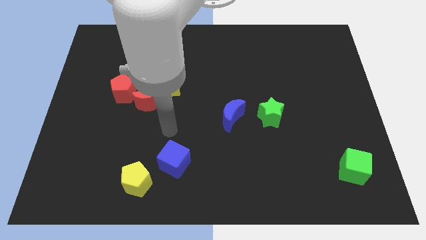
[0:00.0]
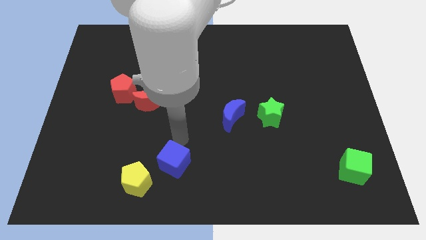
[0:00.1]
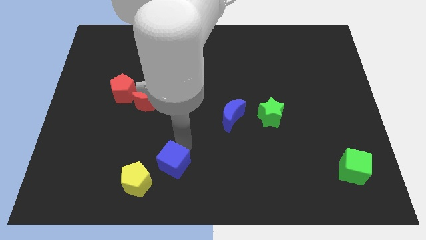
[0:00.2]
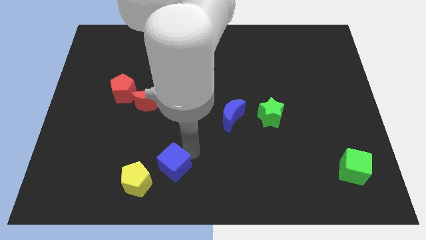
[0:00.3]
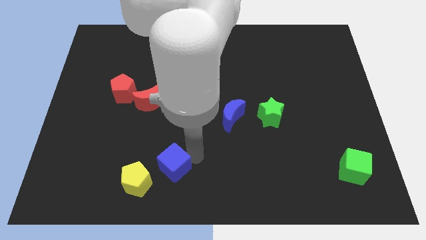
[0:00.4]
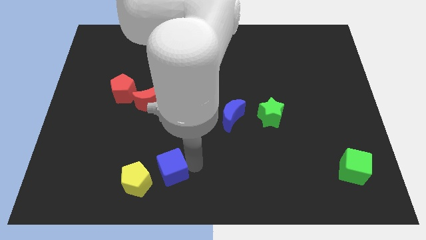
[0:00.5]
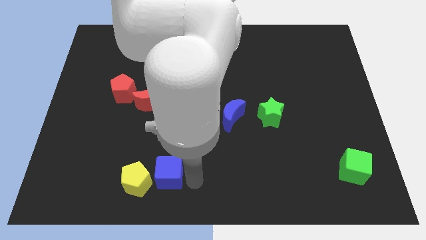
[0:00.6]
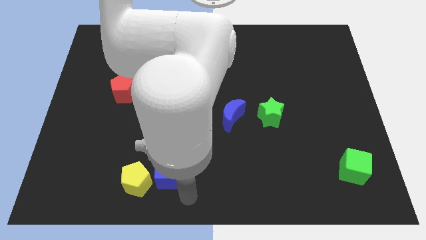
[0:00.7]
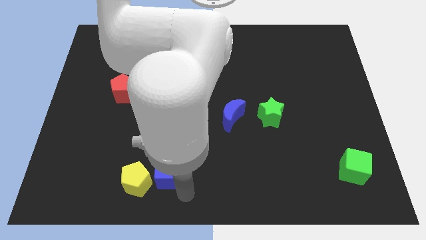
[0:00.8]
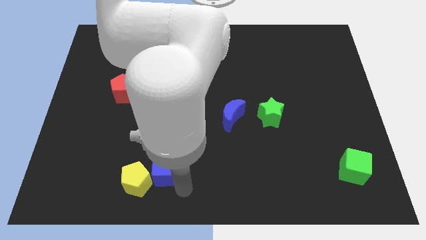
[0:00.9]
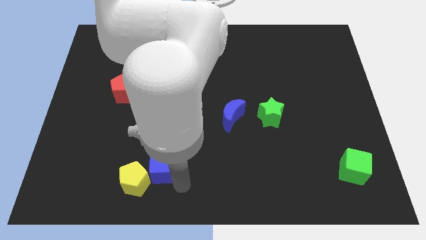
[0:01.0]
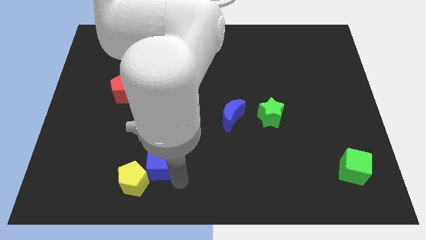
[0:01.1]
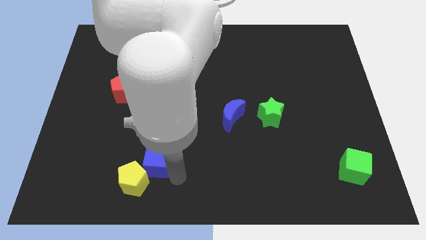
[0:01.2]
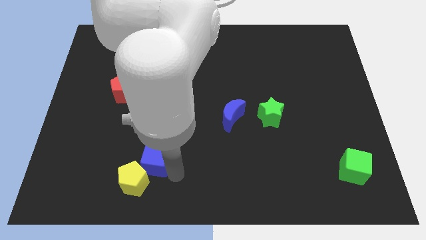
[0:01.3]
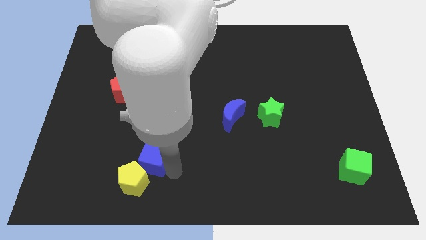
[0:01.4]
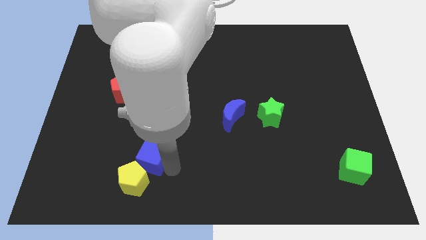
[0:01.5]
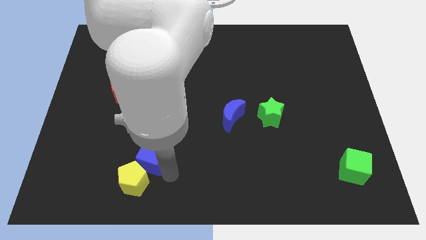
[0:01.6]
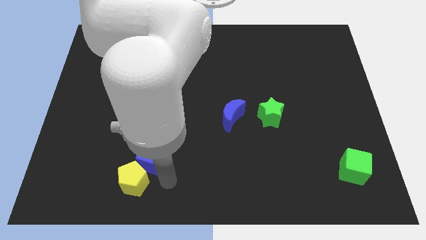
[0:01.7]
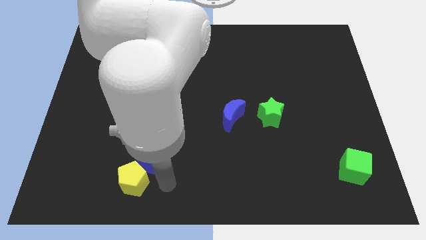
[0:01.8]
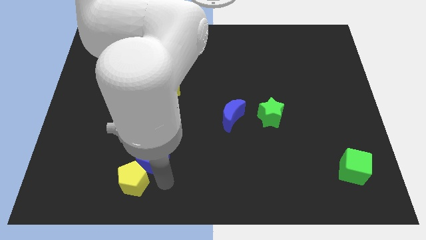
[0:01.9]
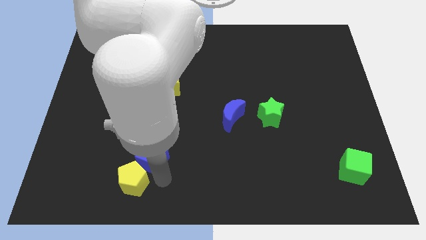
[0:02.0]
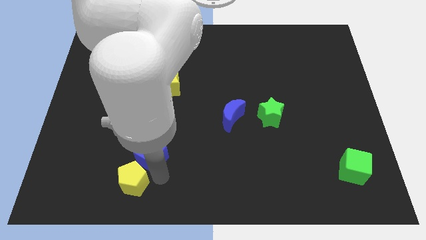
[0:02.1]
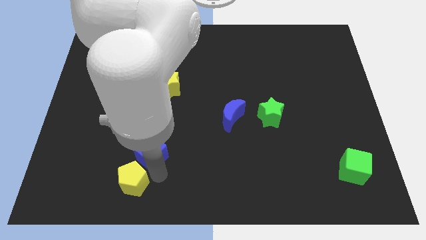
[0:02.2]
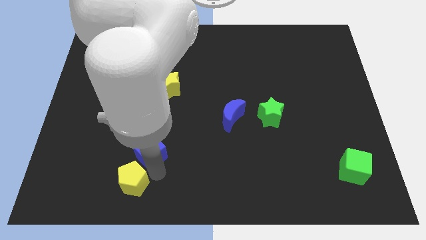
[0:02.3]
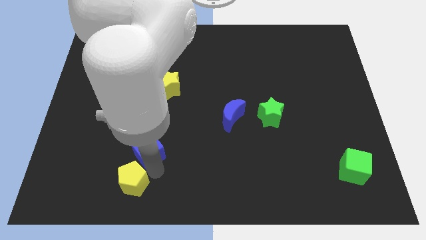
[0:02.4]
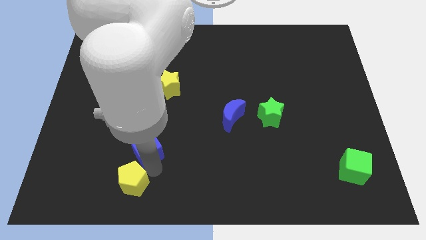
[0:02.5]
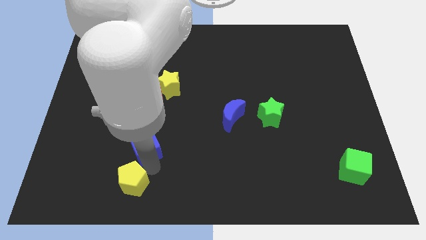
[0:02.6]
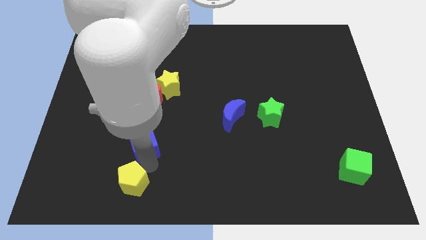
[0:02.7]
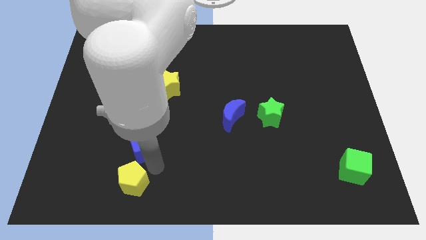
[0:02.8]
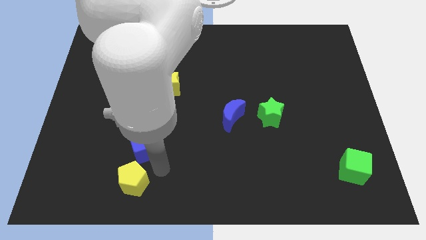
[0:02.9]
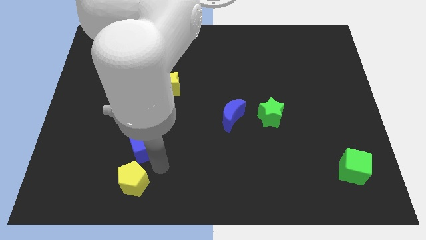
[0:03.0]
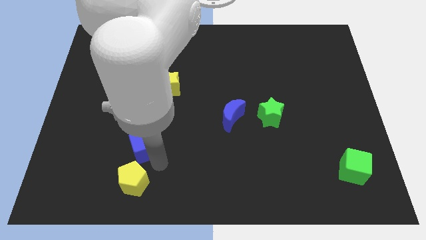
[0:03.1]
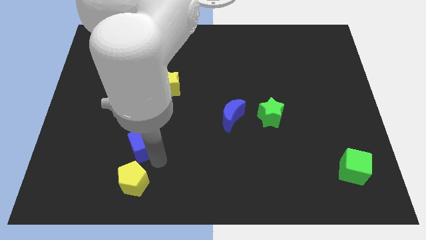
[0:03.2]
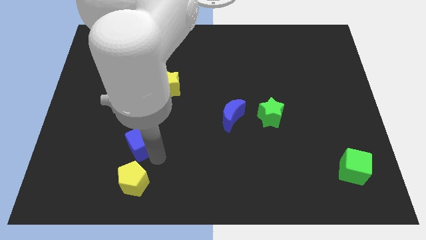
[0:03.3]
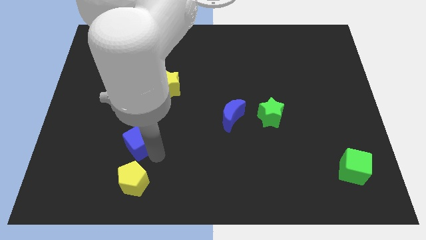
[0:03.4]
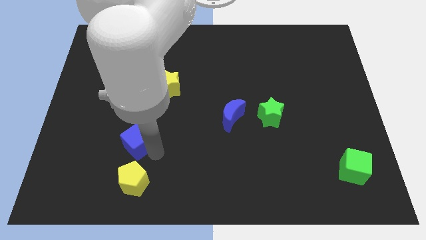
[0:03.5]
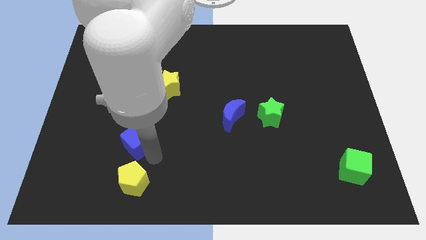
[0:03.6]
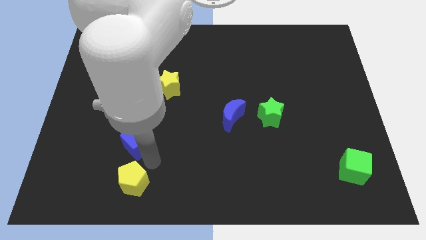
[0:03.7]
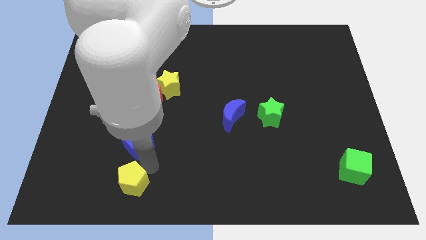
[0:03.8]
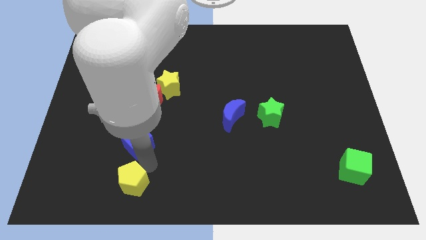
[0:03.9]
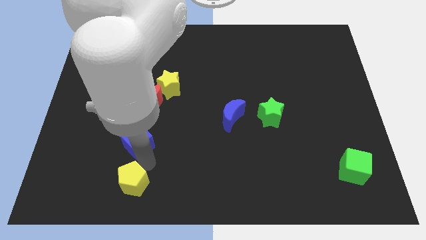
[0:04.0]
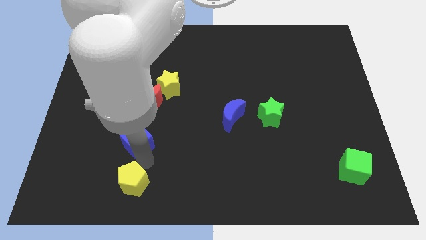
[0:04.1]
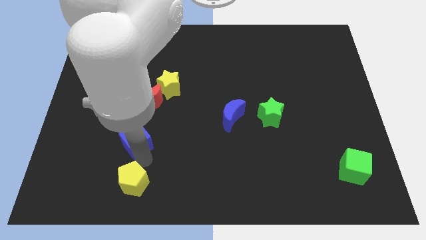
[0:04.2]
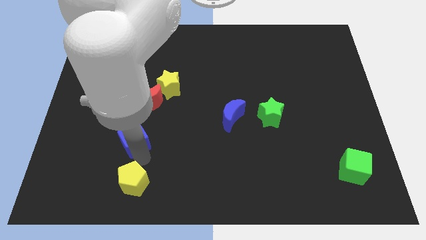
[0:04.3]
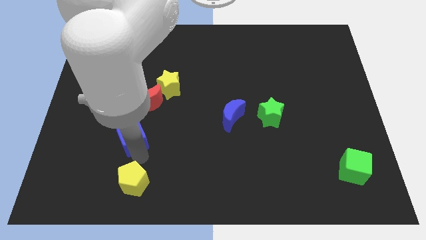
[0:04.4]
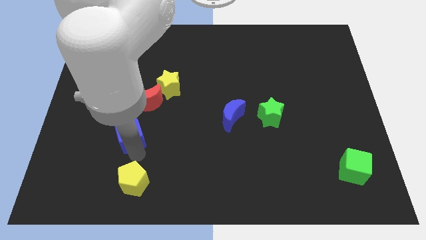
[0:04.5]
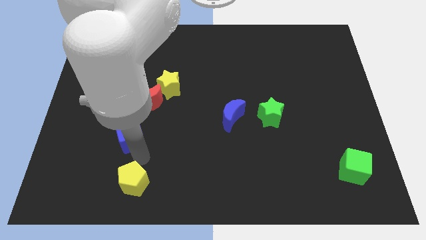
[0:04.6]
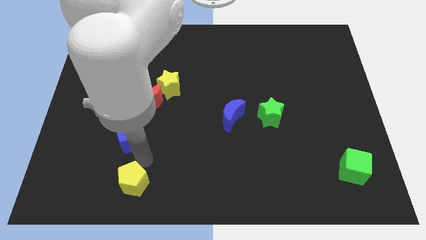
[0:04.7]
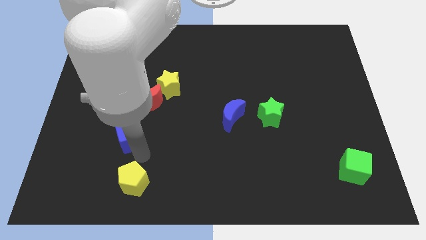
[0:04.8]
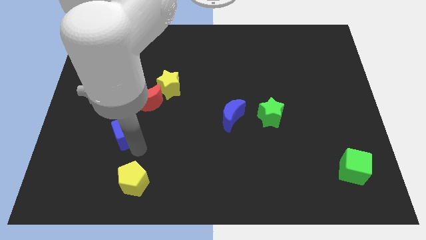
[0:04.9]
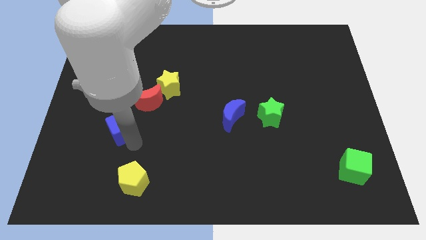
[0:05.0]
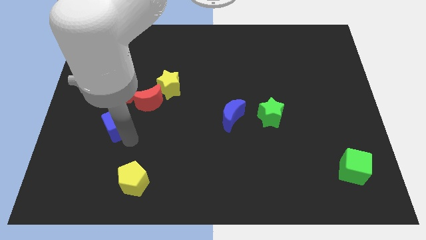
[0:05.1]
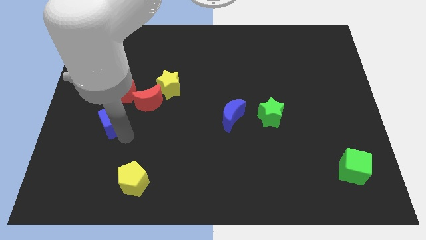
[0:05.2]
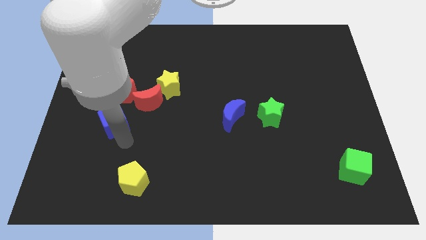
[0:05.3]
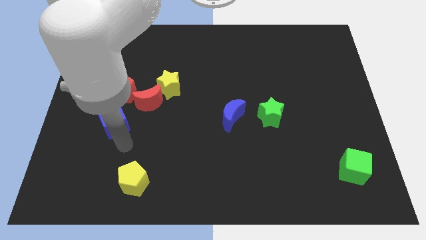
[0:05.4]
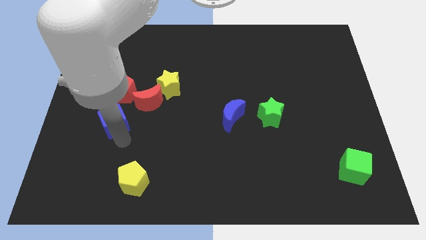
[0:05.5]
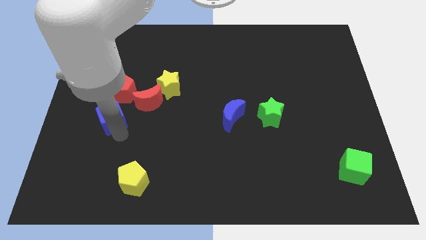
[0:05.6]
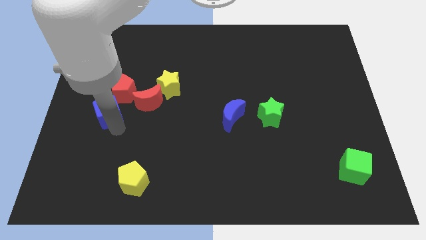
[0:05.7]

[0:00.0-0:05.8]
put the blue cube to the left of the red moon

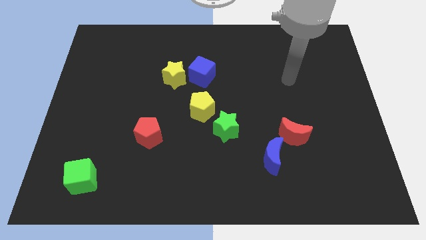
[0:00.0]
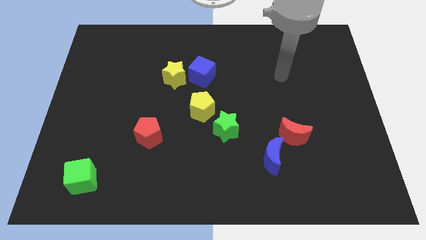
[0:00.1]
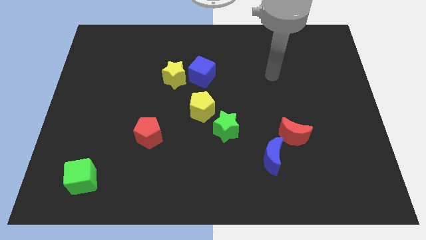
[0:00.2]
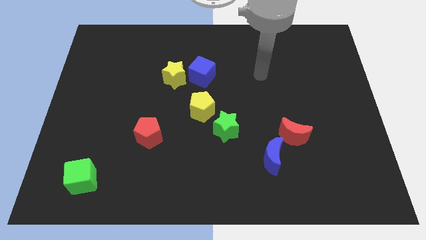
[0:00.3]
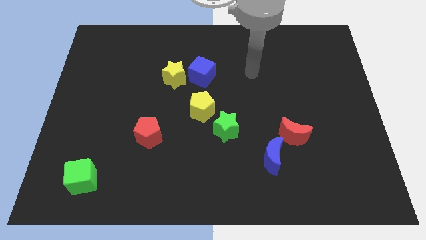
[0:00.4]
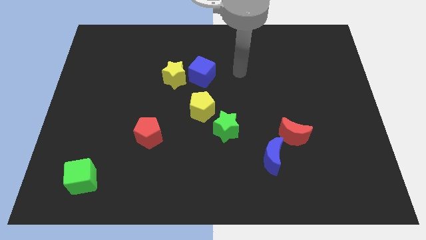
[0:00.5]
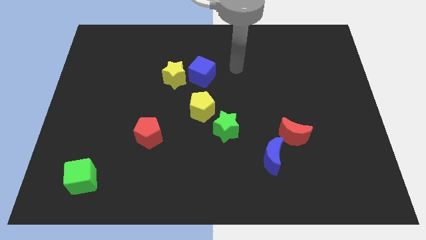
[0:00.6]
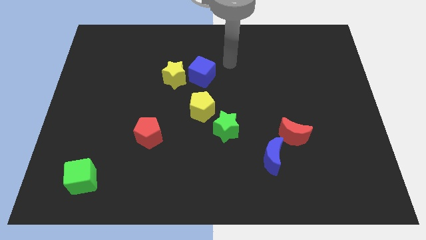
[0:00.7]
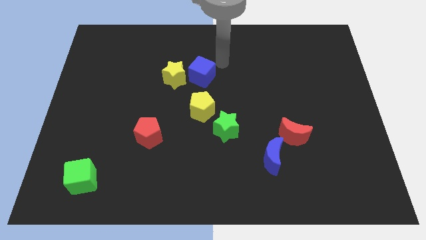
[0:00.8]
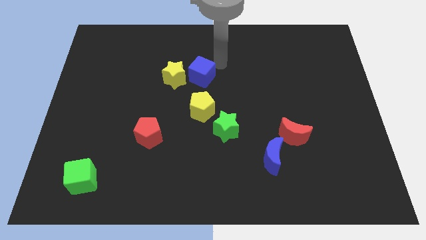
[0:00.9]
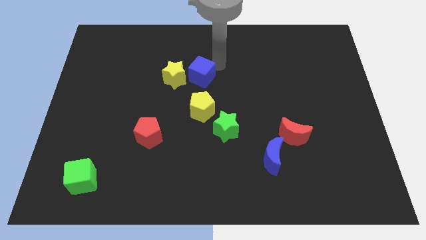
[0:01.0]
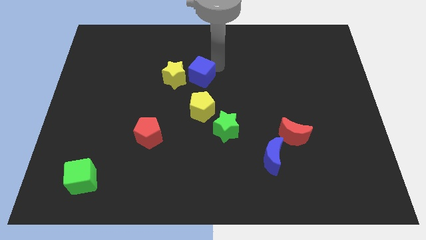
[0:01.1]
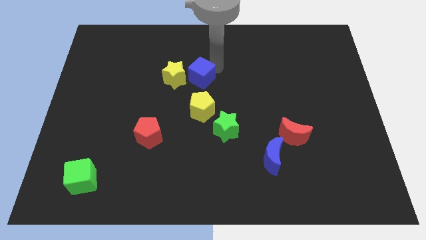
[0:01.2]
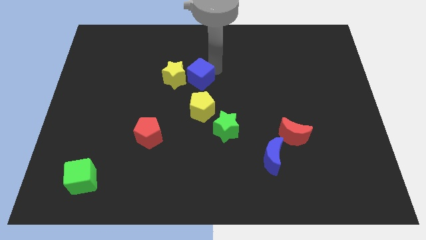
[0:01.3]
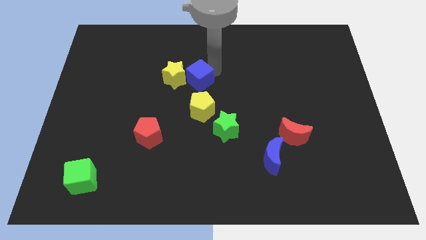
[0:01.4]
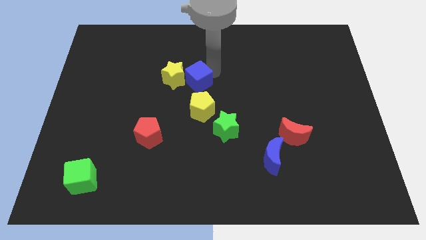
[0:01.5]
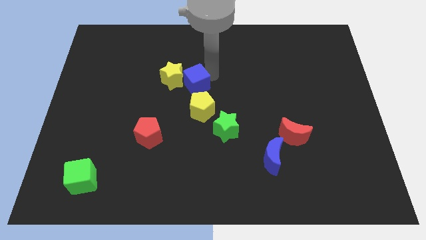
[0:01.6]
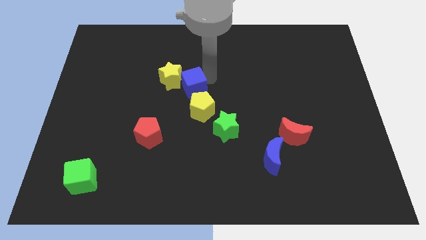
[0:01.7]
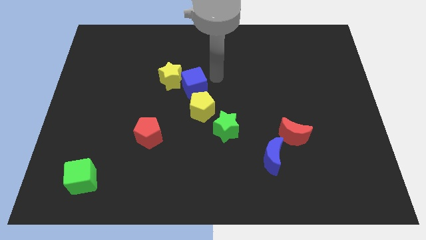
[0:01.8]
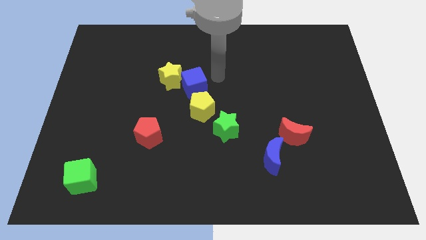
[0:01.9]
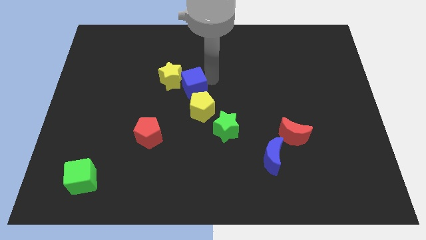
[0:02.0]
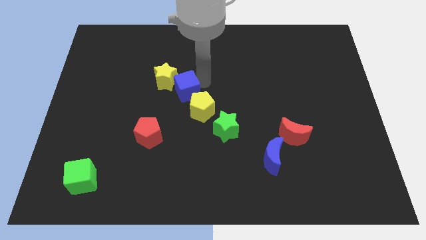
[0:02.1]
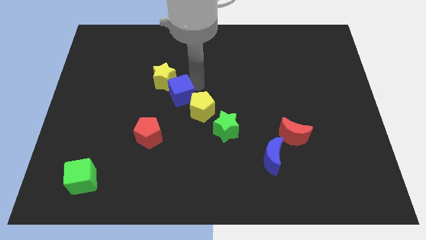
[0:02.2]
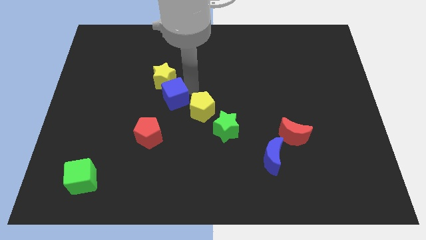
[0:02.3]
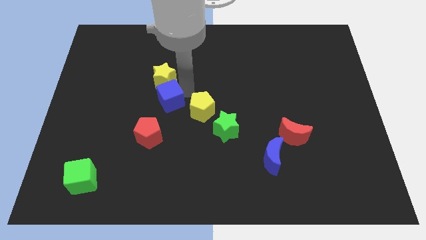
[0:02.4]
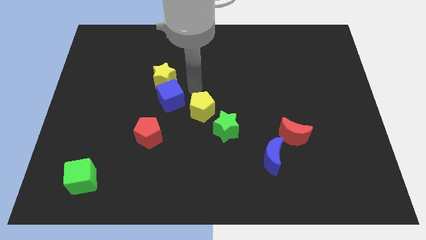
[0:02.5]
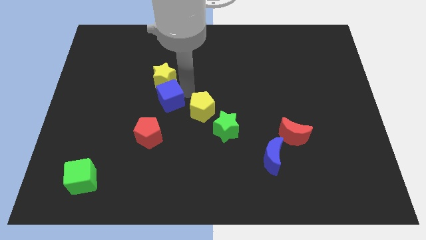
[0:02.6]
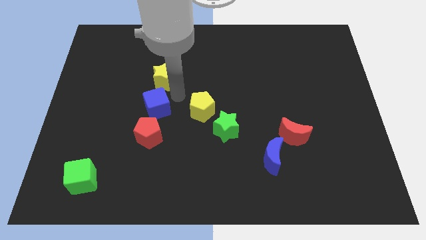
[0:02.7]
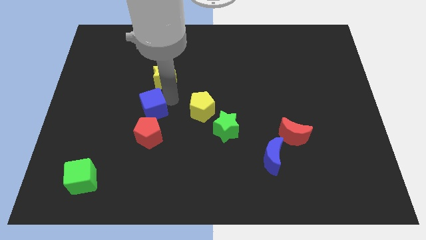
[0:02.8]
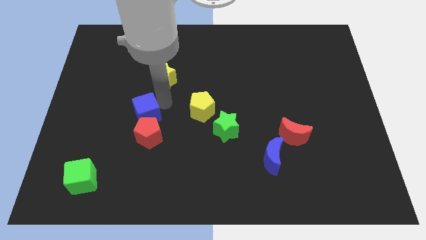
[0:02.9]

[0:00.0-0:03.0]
put the blue cube to the top left side of the red pentagon
